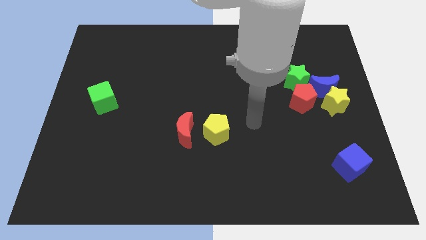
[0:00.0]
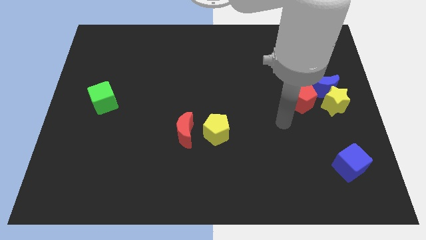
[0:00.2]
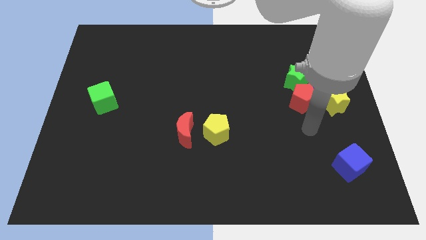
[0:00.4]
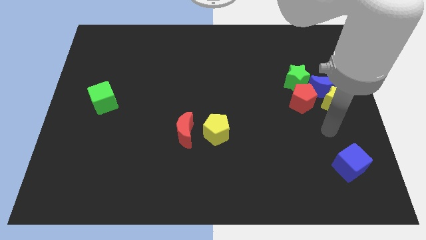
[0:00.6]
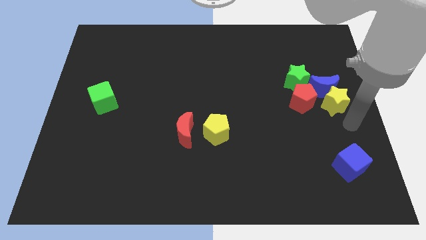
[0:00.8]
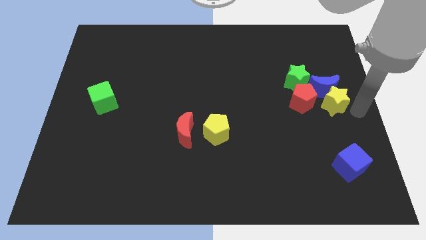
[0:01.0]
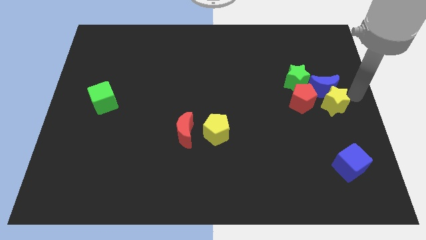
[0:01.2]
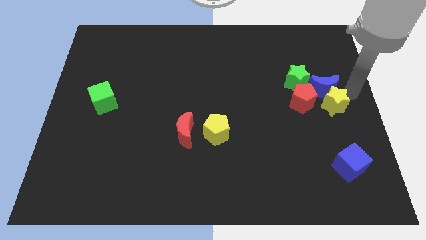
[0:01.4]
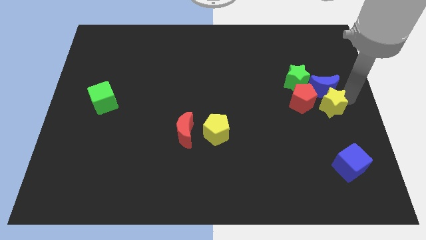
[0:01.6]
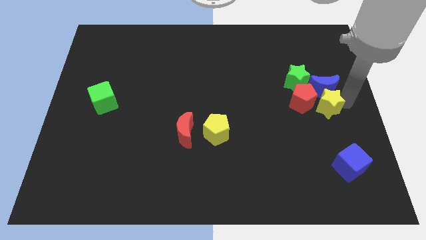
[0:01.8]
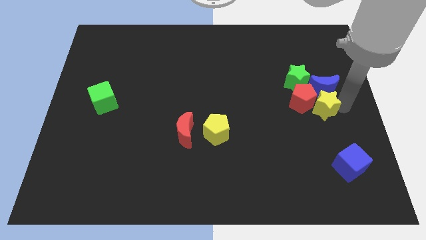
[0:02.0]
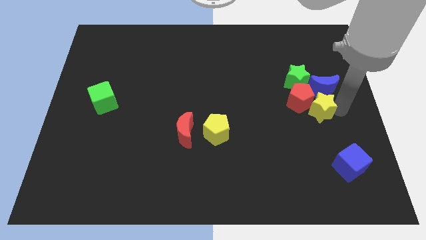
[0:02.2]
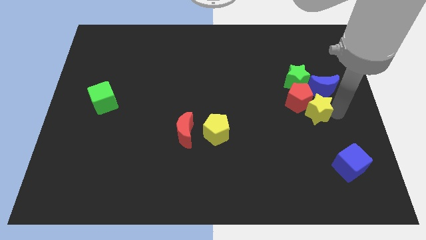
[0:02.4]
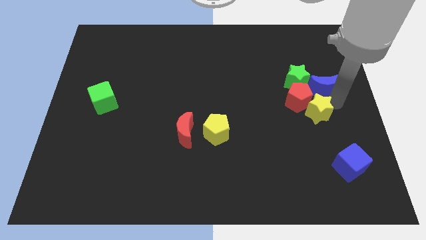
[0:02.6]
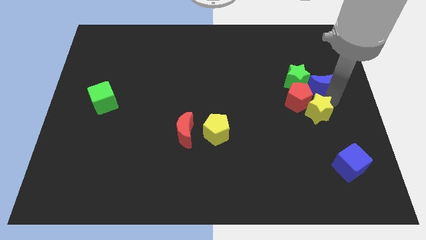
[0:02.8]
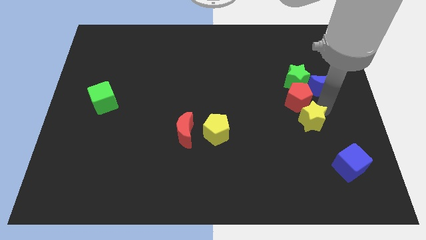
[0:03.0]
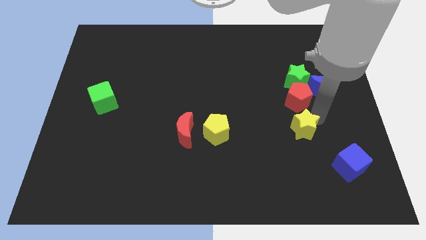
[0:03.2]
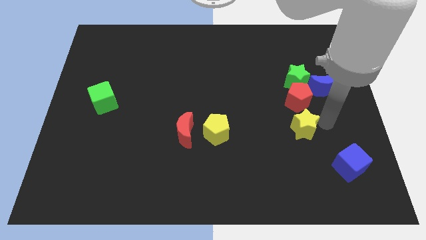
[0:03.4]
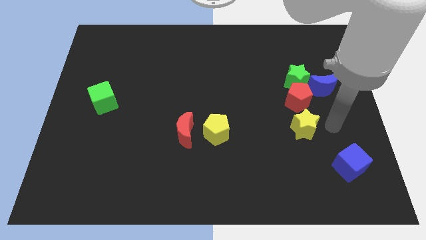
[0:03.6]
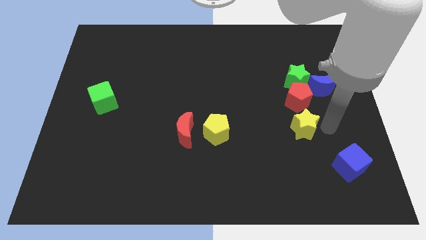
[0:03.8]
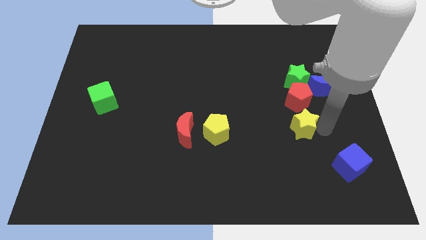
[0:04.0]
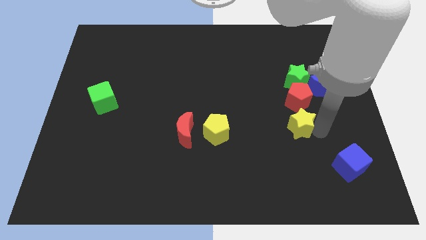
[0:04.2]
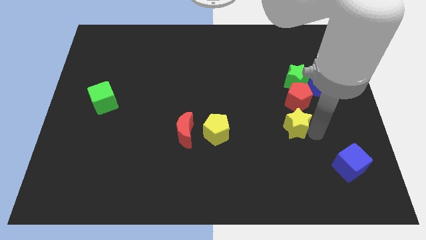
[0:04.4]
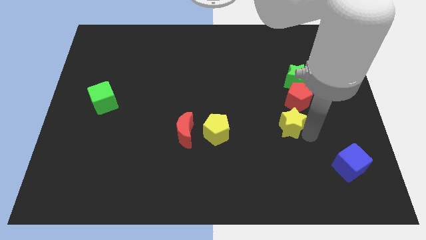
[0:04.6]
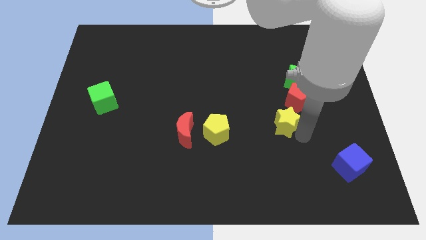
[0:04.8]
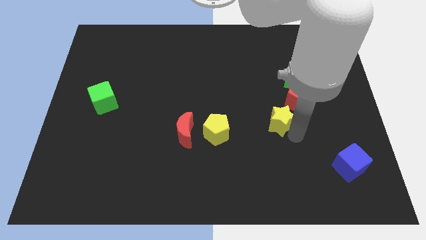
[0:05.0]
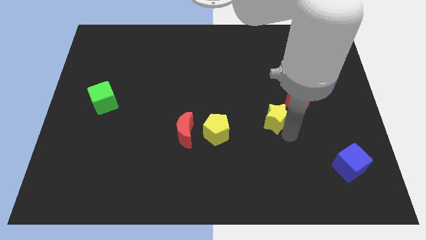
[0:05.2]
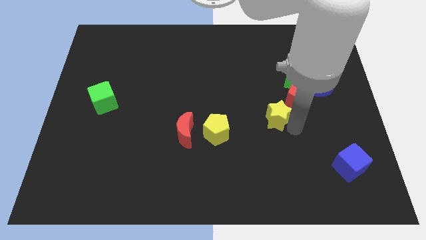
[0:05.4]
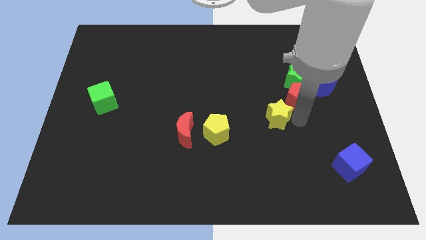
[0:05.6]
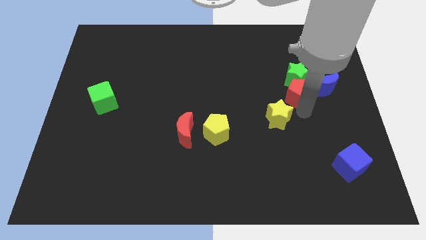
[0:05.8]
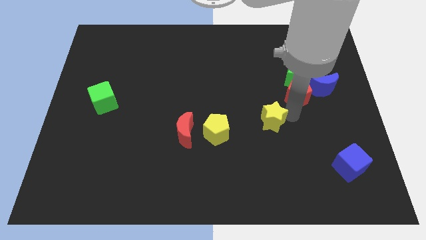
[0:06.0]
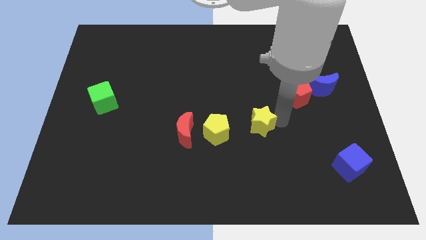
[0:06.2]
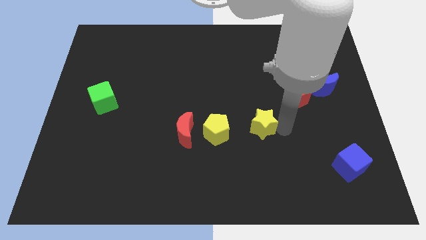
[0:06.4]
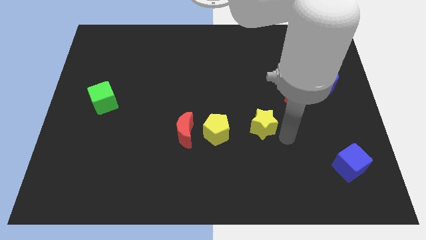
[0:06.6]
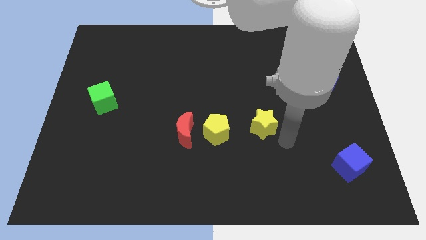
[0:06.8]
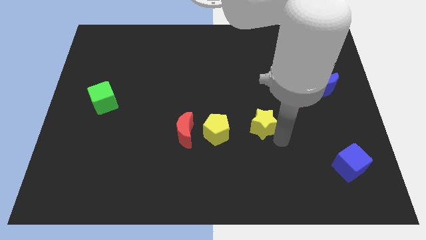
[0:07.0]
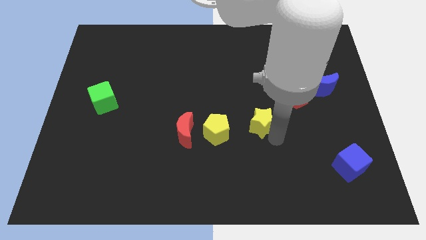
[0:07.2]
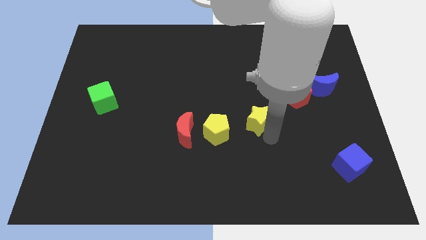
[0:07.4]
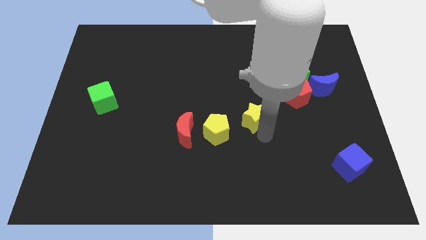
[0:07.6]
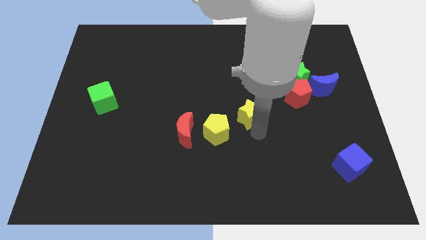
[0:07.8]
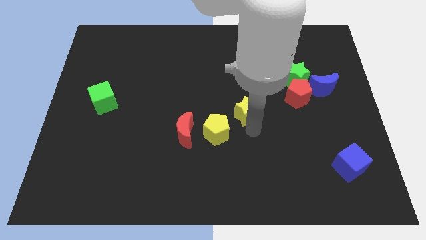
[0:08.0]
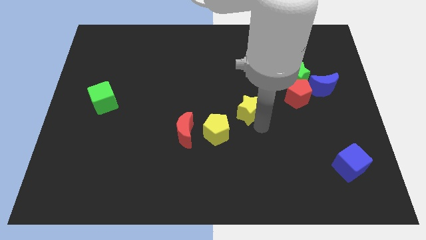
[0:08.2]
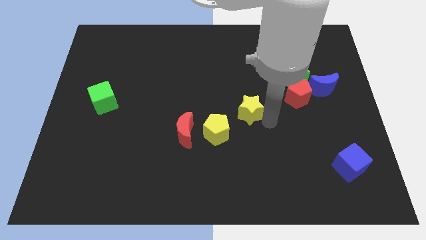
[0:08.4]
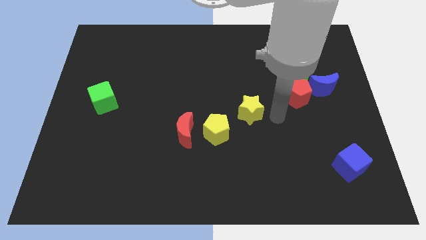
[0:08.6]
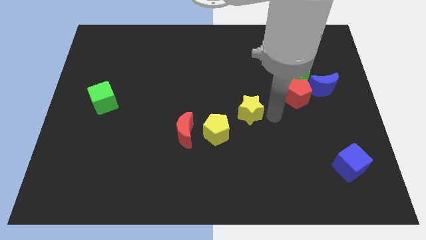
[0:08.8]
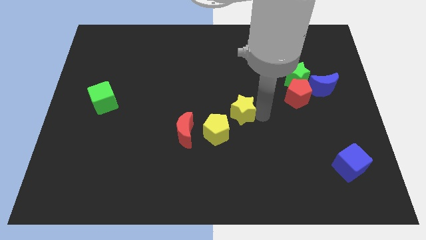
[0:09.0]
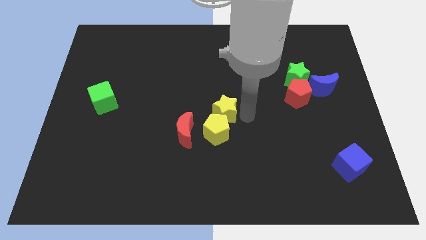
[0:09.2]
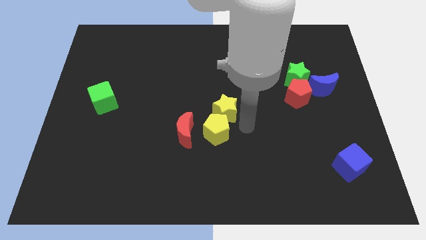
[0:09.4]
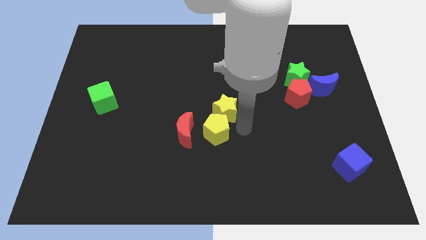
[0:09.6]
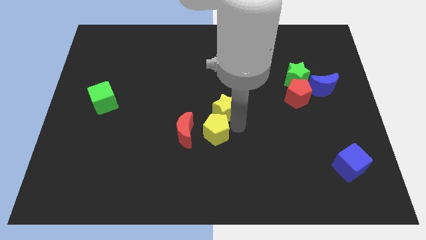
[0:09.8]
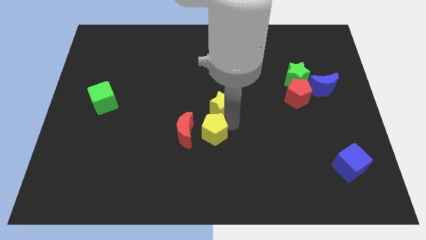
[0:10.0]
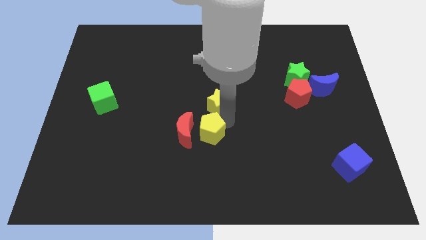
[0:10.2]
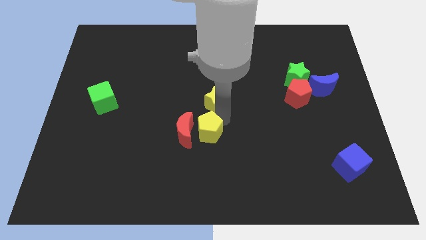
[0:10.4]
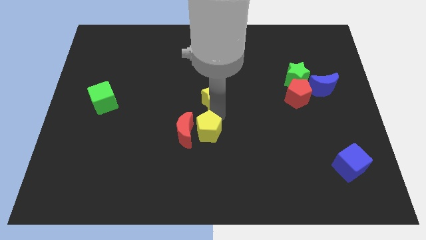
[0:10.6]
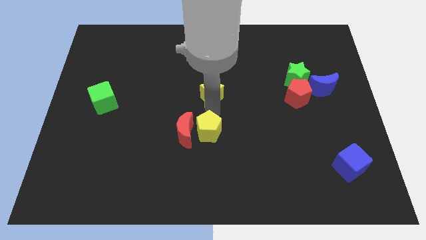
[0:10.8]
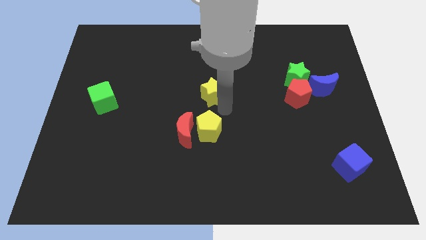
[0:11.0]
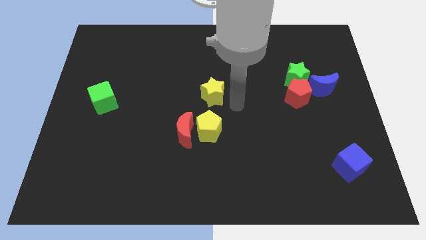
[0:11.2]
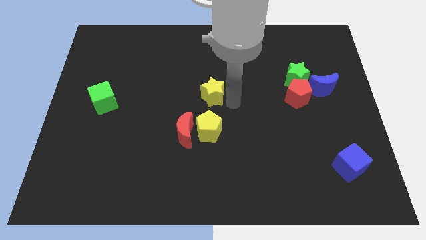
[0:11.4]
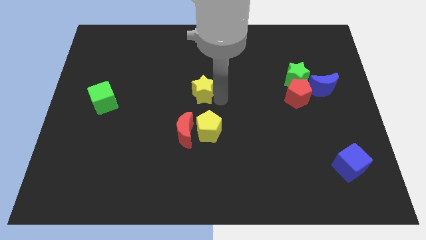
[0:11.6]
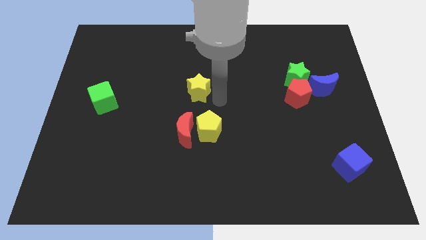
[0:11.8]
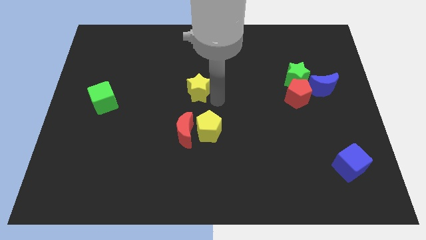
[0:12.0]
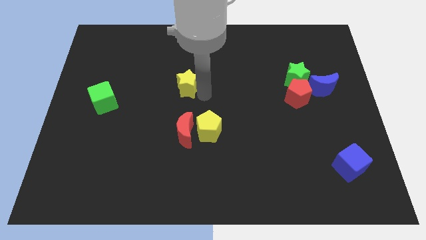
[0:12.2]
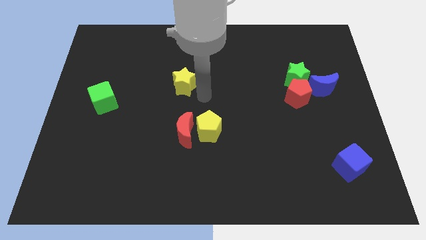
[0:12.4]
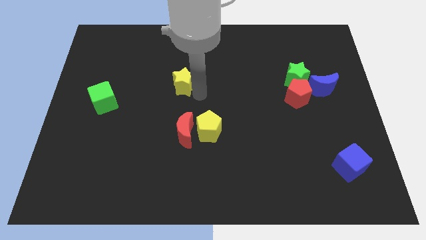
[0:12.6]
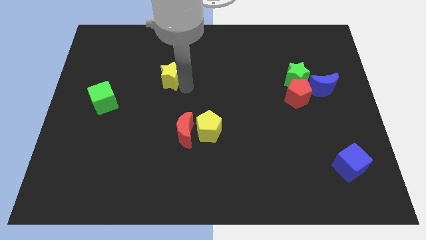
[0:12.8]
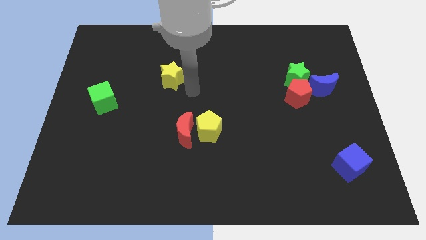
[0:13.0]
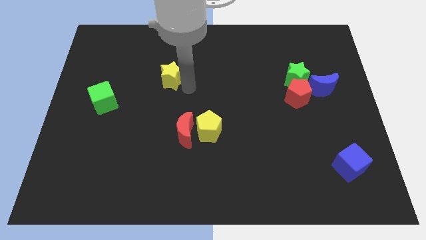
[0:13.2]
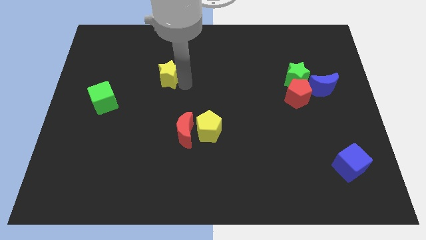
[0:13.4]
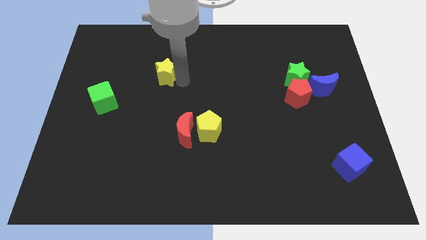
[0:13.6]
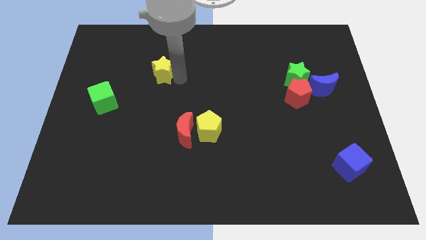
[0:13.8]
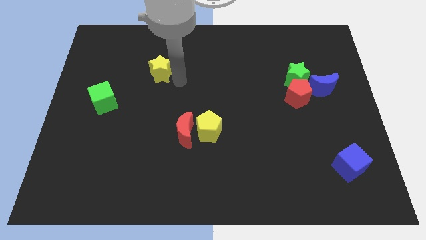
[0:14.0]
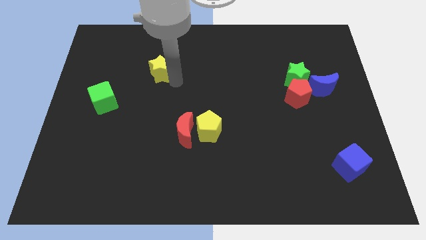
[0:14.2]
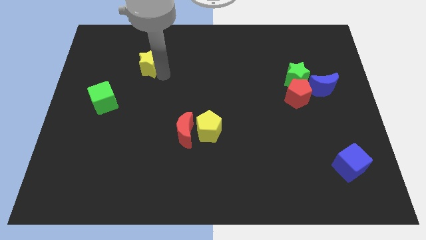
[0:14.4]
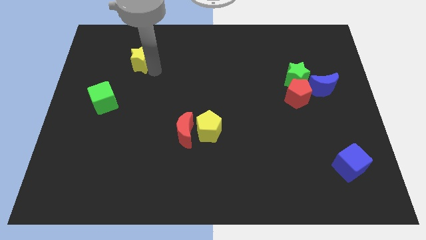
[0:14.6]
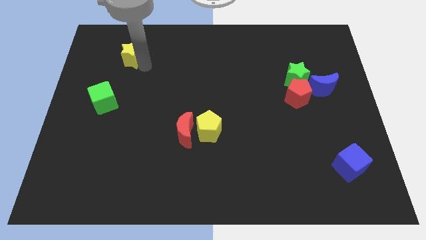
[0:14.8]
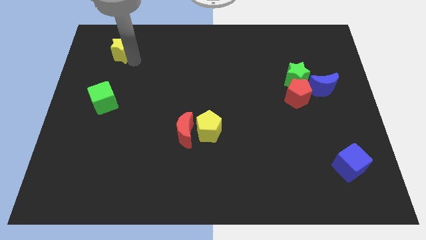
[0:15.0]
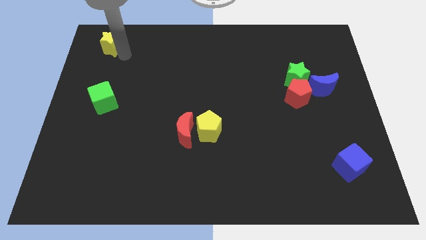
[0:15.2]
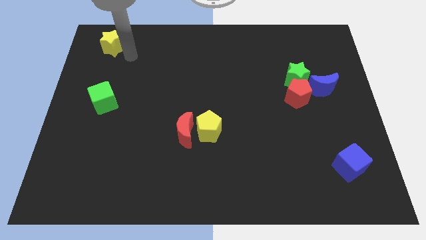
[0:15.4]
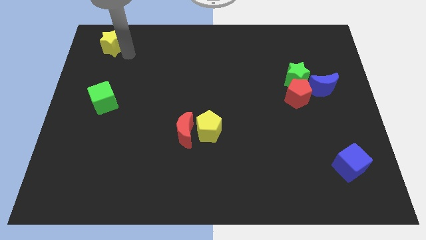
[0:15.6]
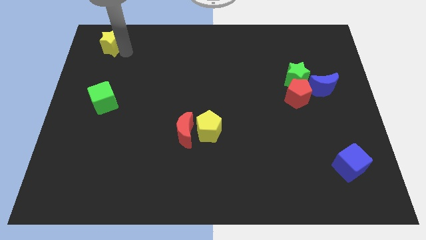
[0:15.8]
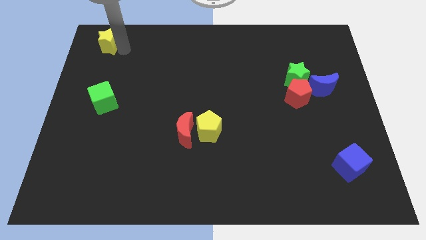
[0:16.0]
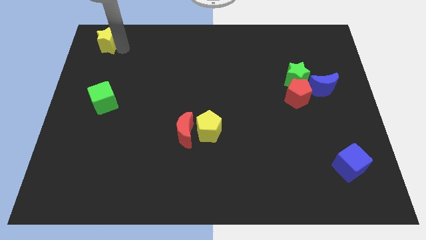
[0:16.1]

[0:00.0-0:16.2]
slide the yellow star to the top left of the board
